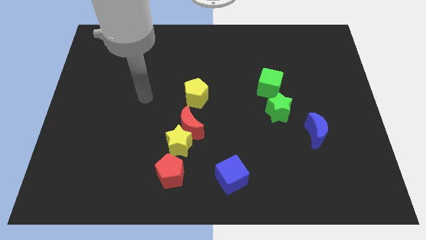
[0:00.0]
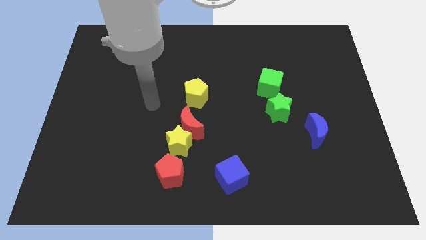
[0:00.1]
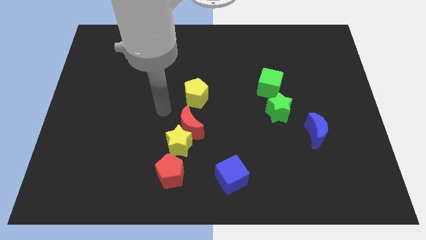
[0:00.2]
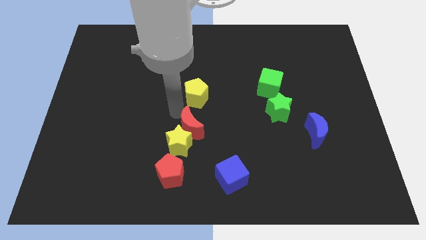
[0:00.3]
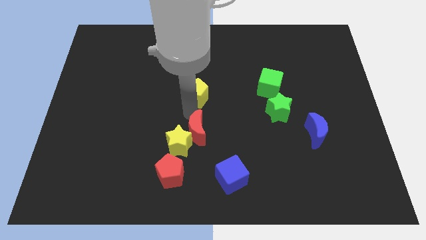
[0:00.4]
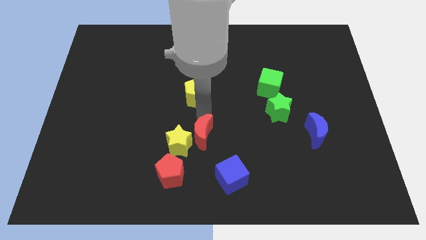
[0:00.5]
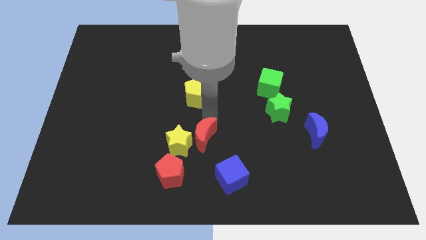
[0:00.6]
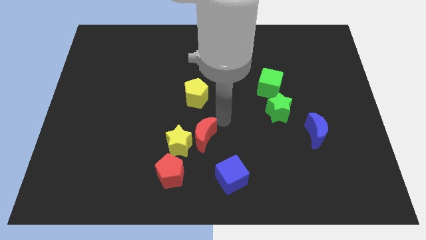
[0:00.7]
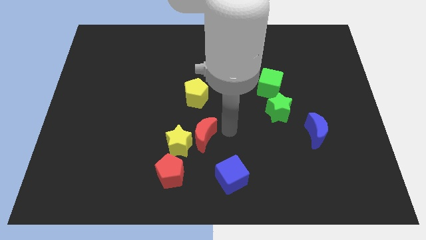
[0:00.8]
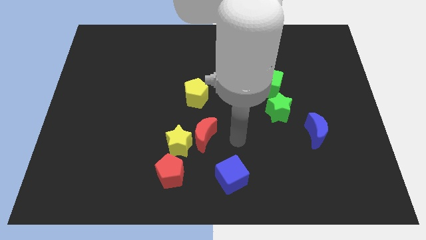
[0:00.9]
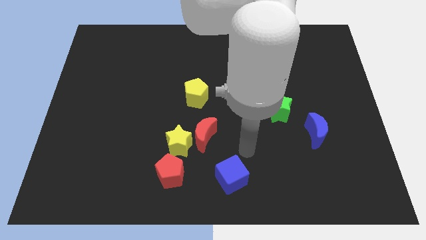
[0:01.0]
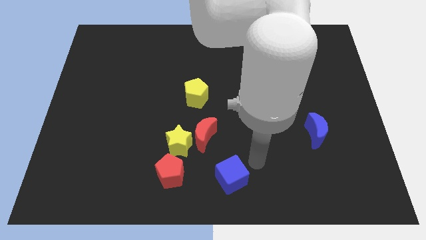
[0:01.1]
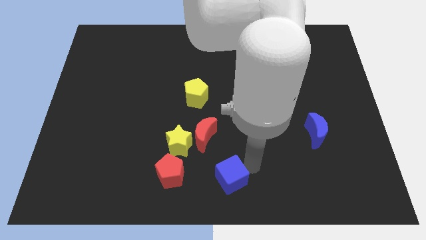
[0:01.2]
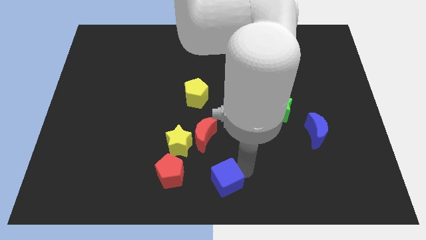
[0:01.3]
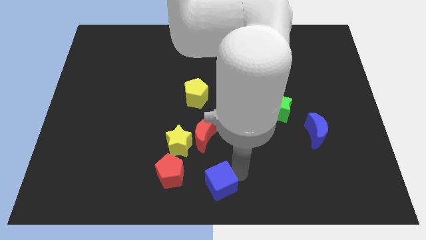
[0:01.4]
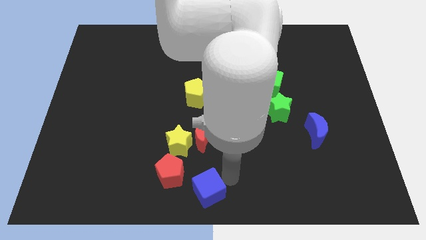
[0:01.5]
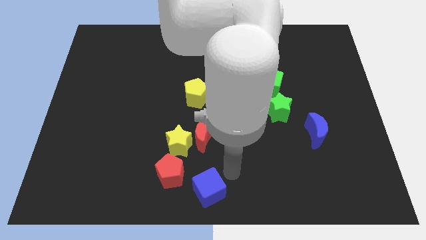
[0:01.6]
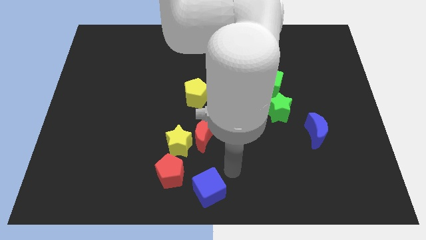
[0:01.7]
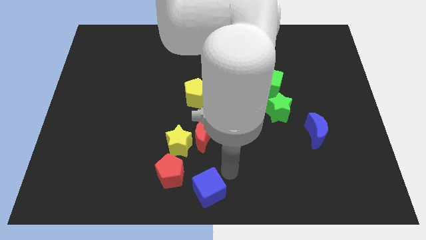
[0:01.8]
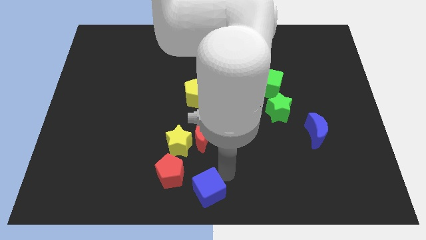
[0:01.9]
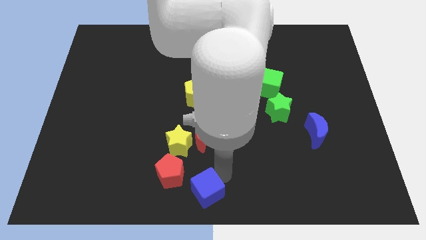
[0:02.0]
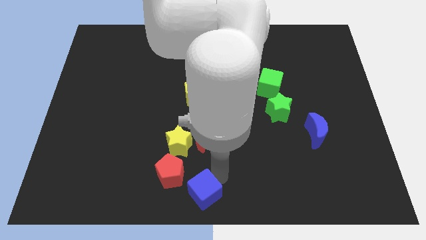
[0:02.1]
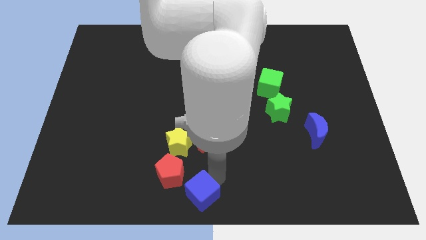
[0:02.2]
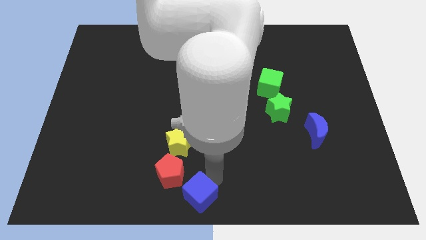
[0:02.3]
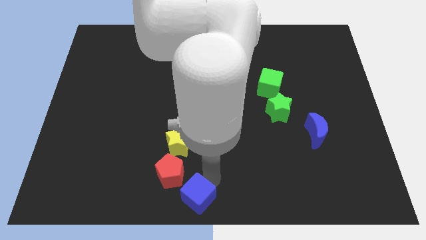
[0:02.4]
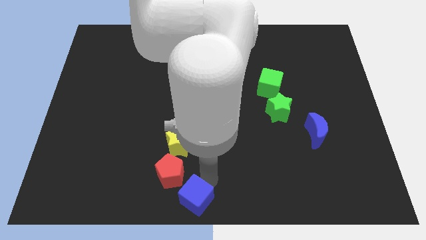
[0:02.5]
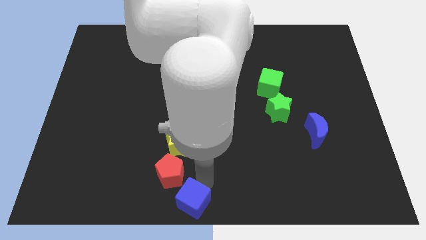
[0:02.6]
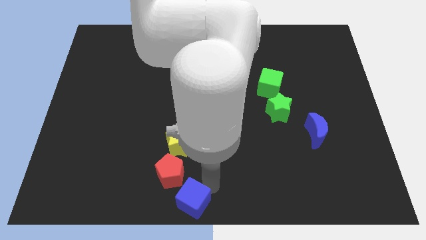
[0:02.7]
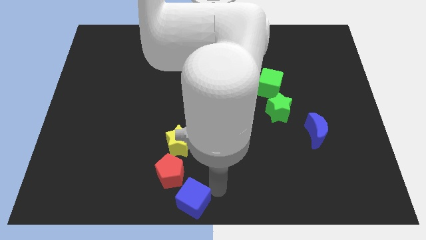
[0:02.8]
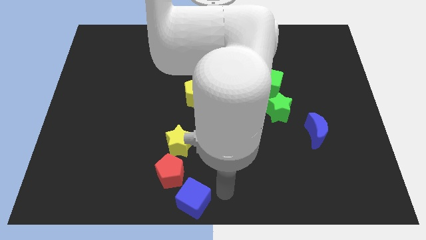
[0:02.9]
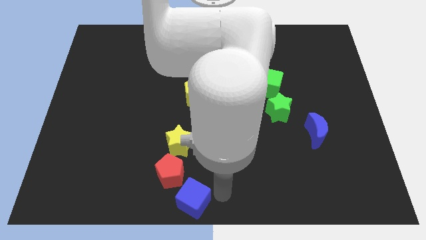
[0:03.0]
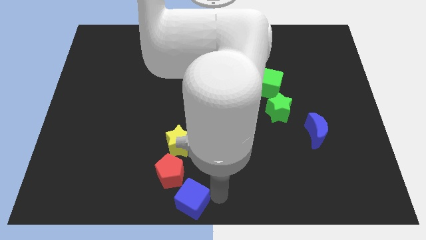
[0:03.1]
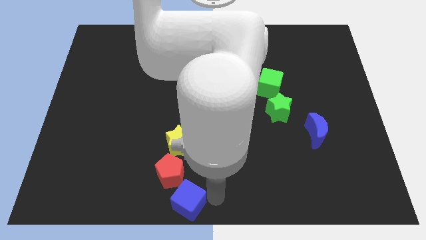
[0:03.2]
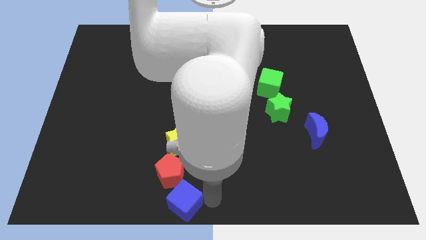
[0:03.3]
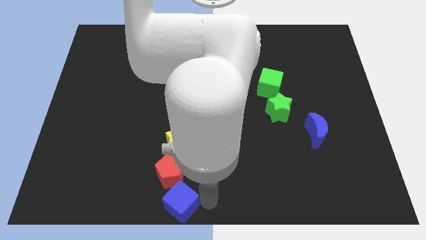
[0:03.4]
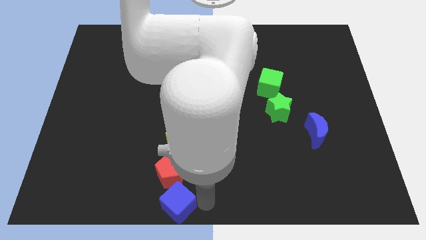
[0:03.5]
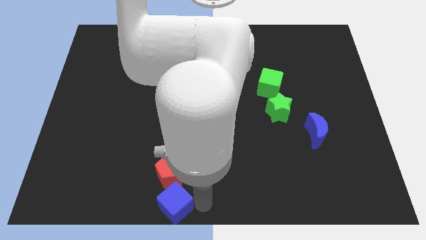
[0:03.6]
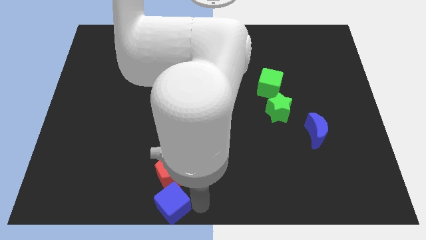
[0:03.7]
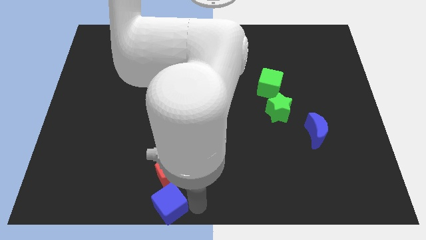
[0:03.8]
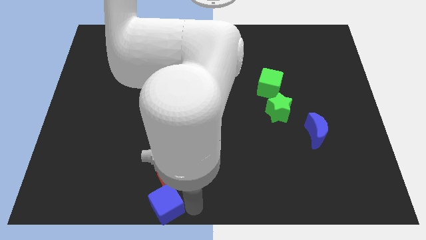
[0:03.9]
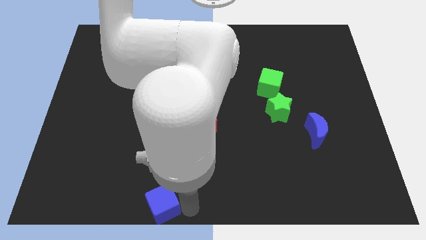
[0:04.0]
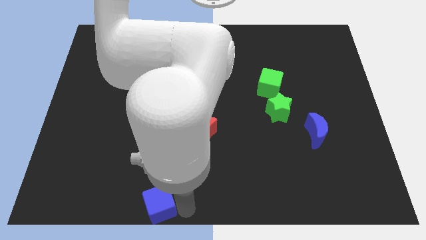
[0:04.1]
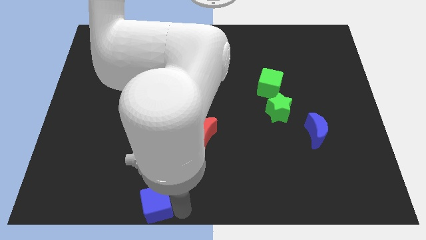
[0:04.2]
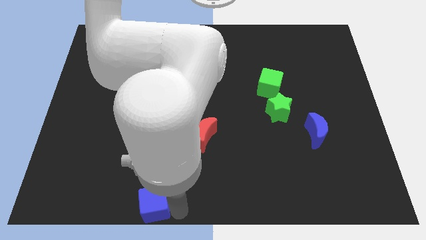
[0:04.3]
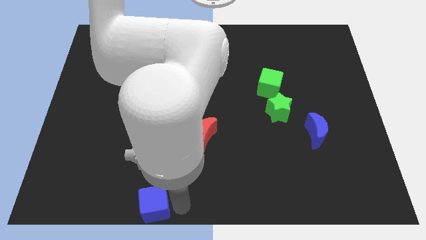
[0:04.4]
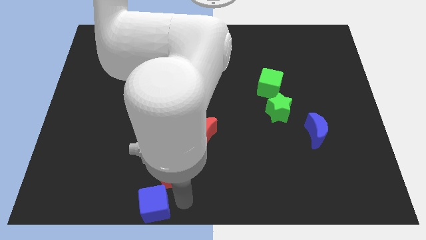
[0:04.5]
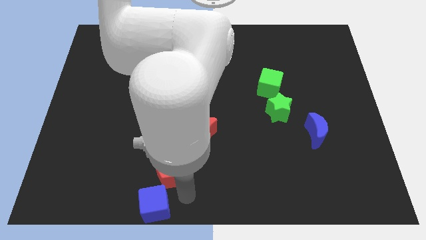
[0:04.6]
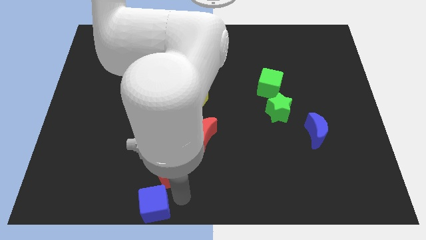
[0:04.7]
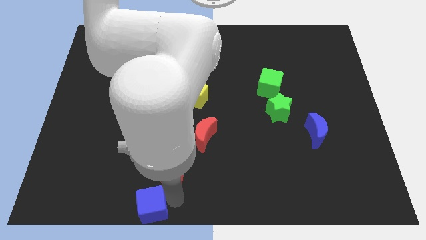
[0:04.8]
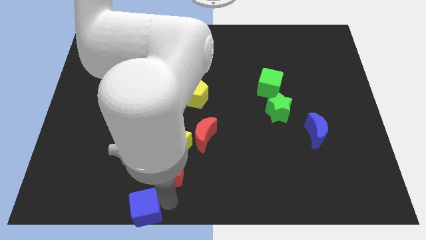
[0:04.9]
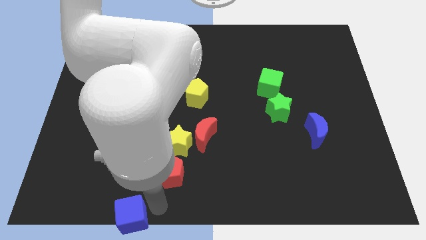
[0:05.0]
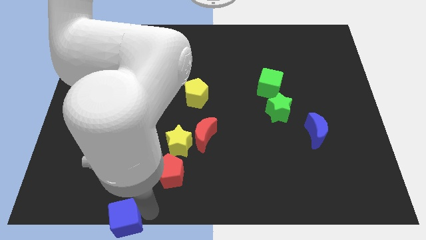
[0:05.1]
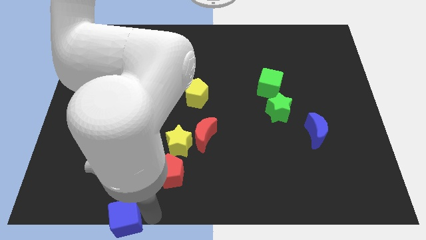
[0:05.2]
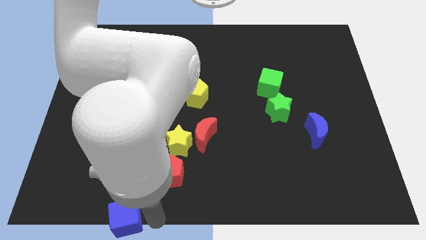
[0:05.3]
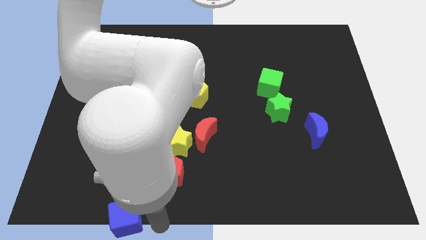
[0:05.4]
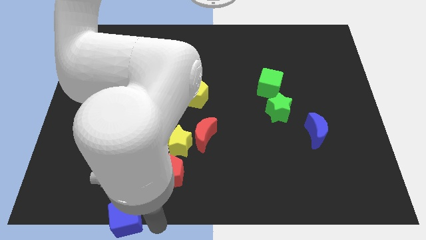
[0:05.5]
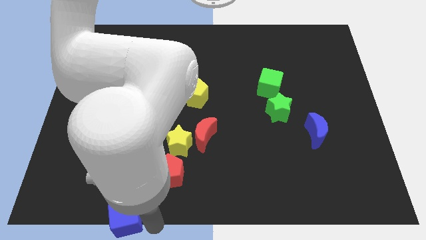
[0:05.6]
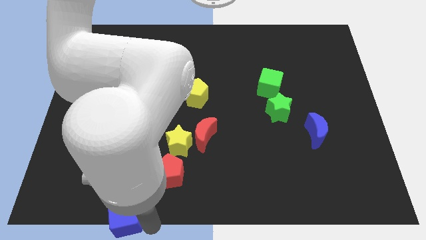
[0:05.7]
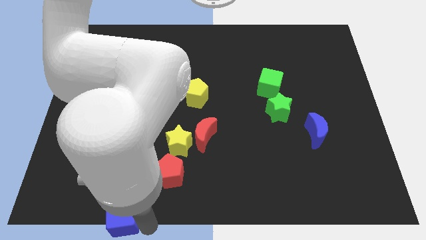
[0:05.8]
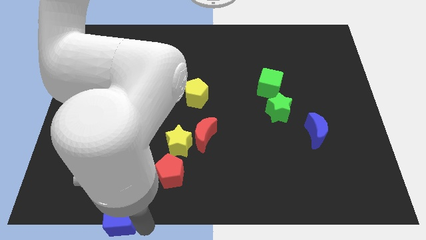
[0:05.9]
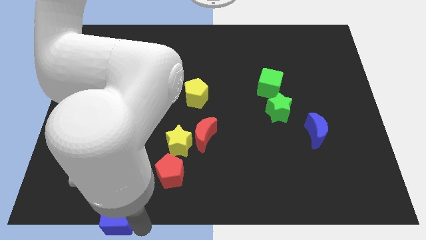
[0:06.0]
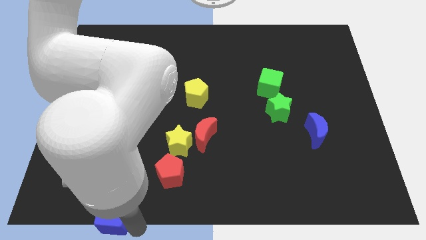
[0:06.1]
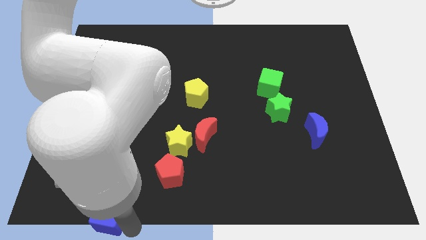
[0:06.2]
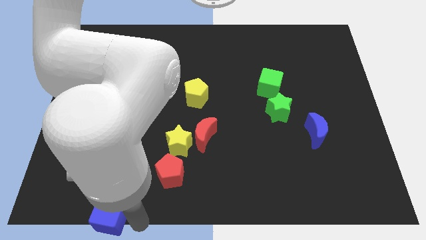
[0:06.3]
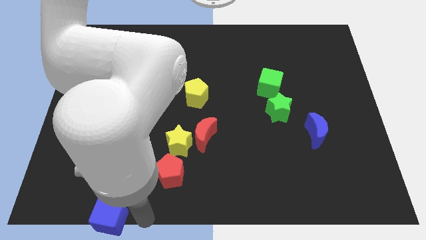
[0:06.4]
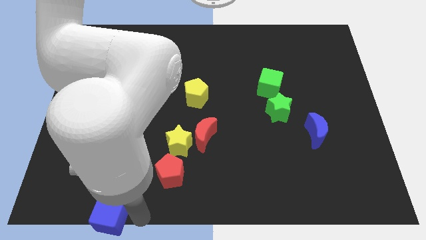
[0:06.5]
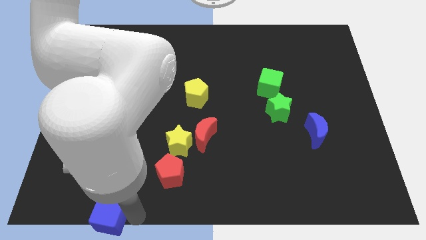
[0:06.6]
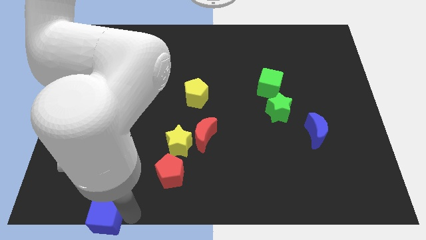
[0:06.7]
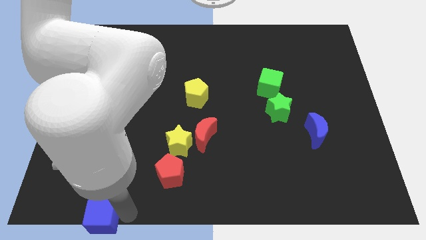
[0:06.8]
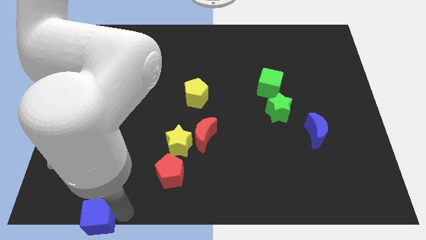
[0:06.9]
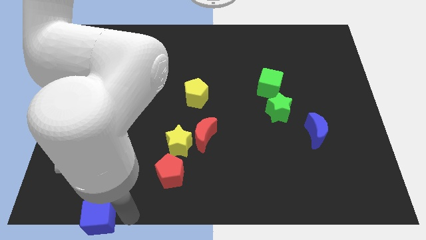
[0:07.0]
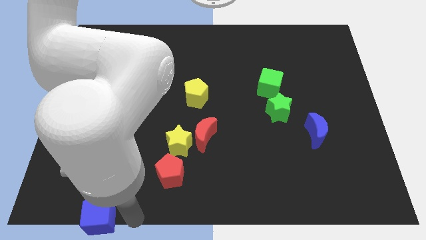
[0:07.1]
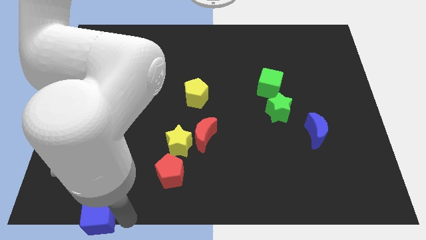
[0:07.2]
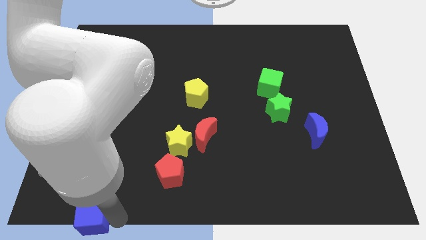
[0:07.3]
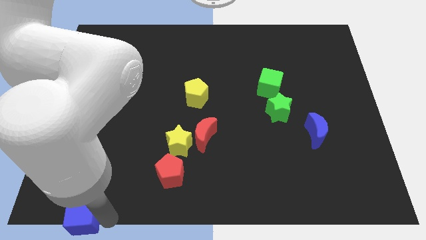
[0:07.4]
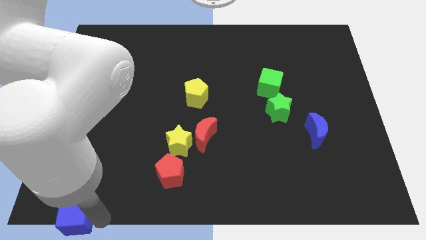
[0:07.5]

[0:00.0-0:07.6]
push the blue cube to the lower left corner
